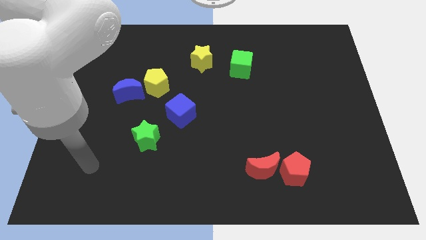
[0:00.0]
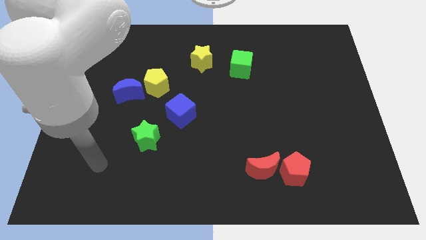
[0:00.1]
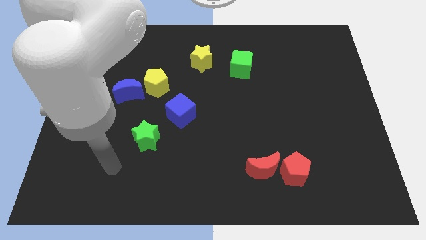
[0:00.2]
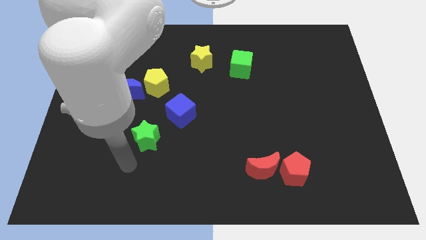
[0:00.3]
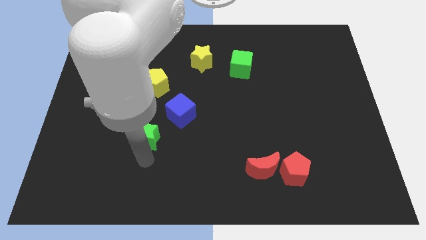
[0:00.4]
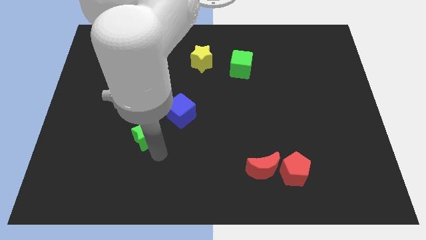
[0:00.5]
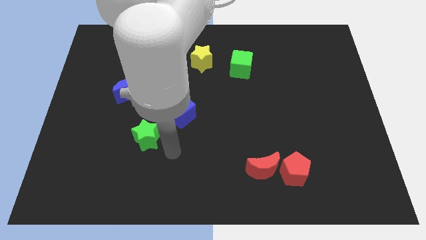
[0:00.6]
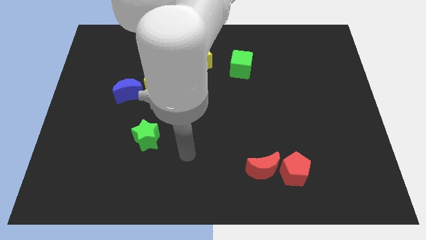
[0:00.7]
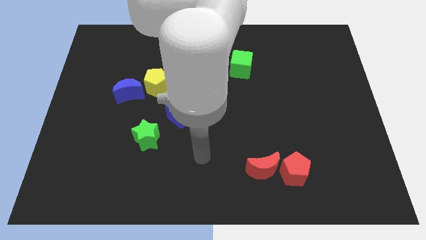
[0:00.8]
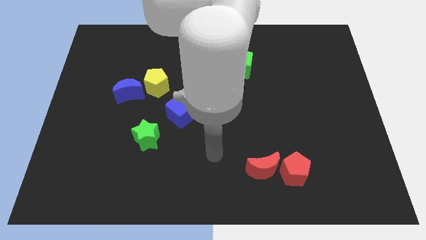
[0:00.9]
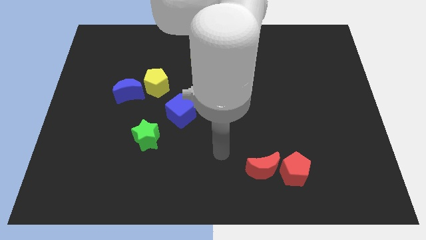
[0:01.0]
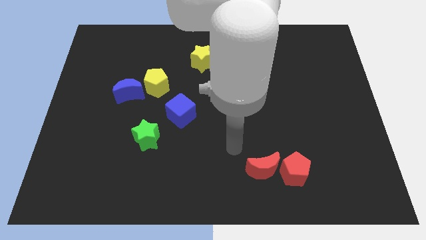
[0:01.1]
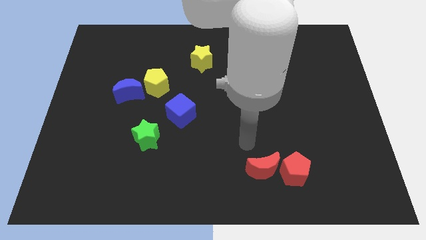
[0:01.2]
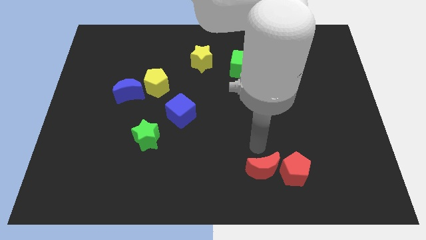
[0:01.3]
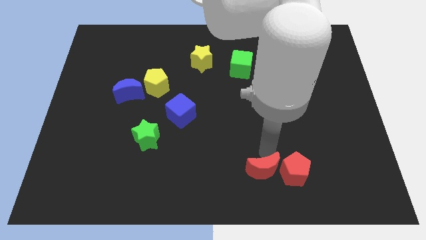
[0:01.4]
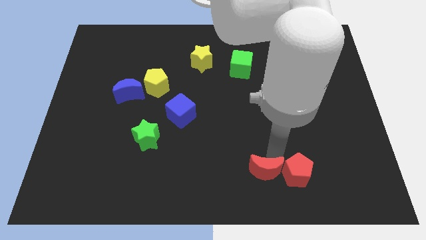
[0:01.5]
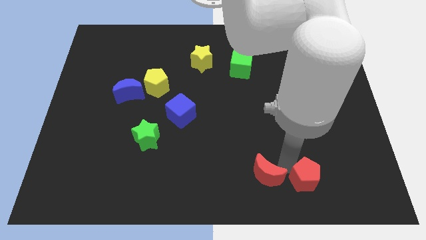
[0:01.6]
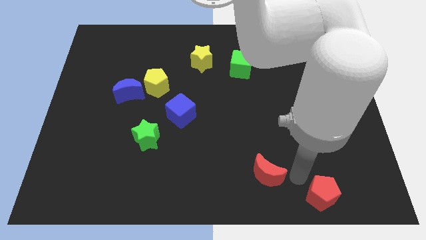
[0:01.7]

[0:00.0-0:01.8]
separate the red moon from the red pentagon

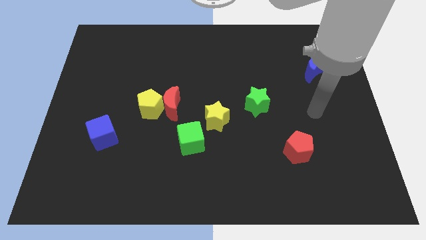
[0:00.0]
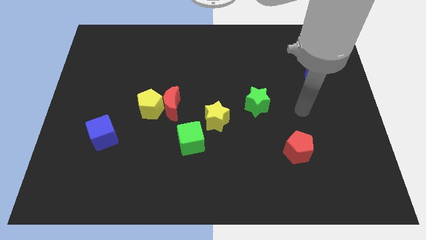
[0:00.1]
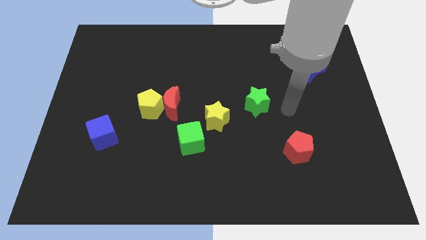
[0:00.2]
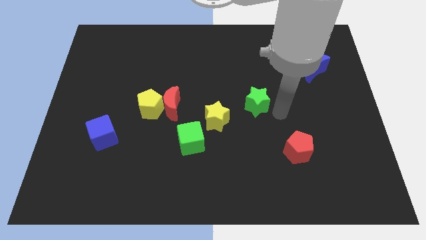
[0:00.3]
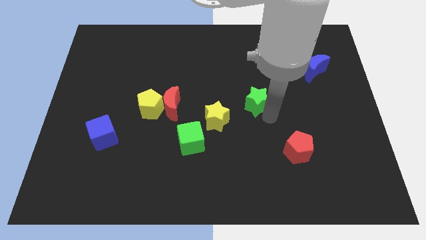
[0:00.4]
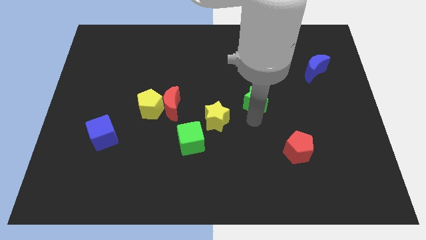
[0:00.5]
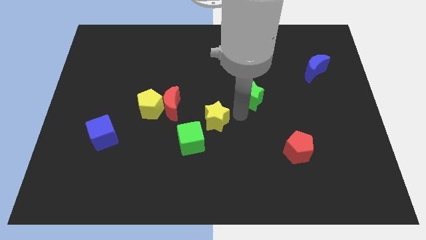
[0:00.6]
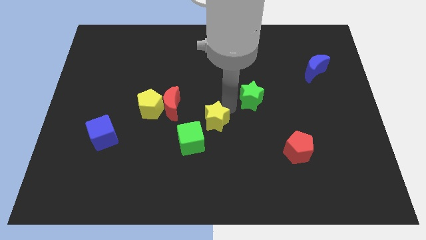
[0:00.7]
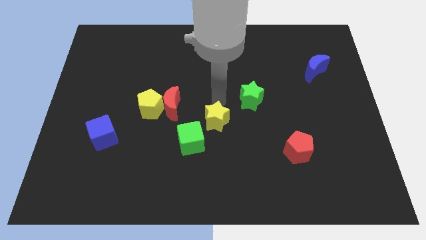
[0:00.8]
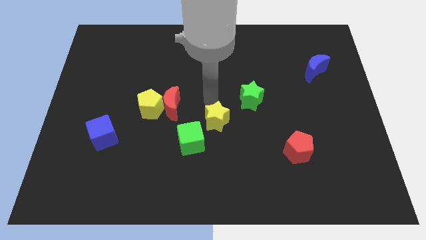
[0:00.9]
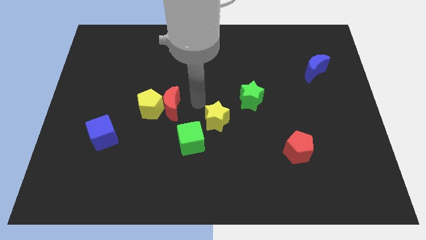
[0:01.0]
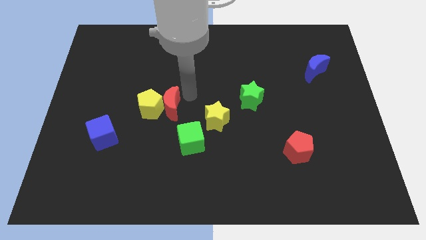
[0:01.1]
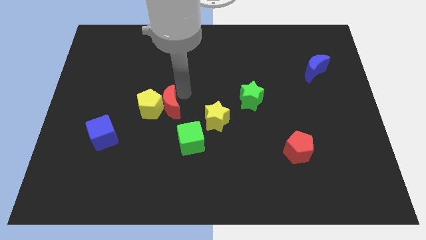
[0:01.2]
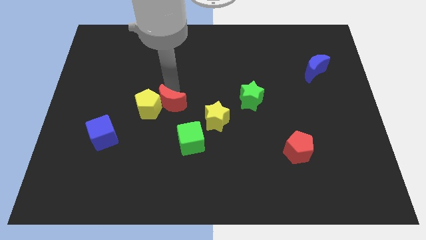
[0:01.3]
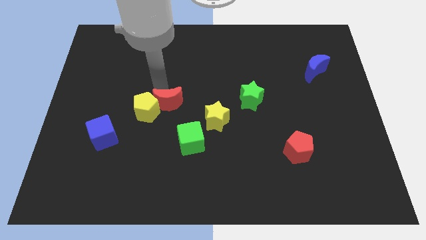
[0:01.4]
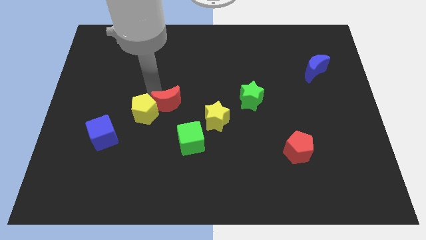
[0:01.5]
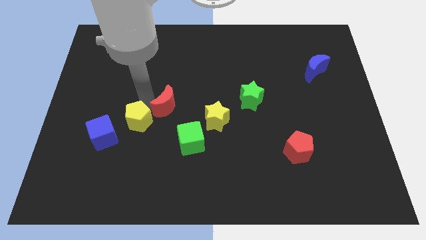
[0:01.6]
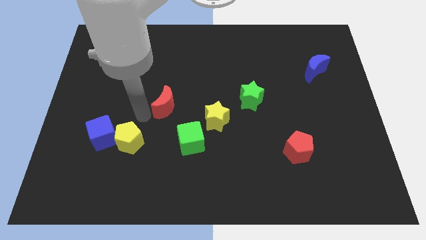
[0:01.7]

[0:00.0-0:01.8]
separate the red moon from the yellow pentagon

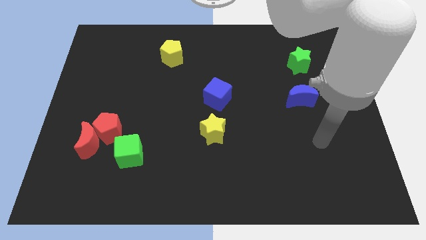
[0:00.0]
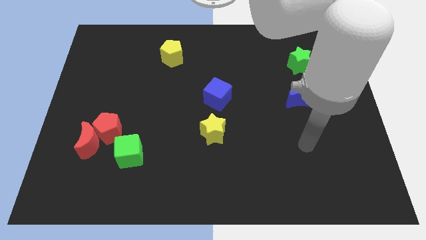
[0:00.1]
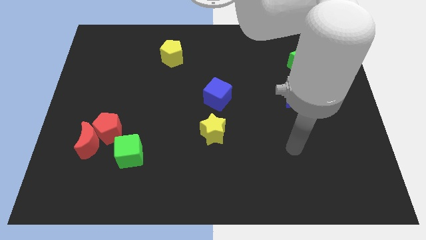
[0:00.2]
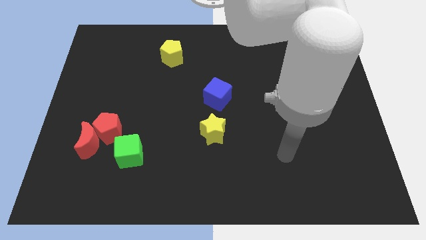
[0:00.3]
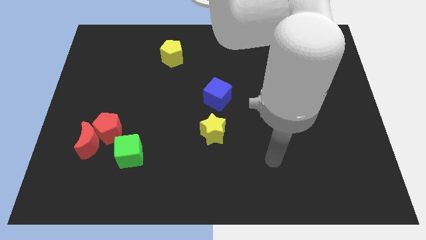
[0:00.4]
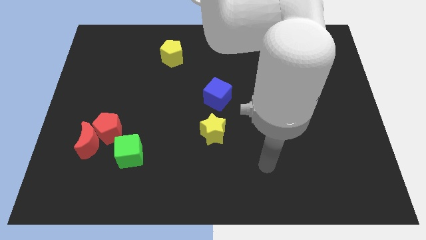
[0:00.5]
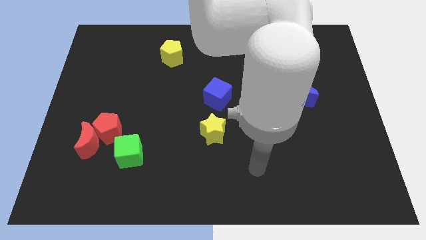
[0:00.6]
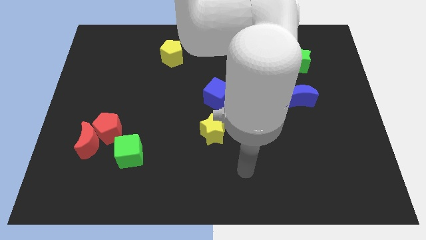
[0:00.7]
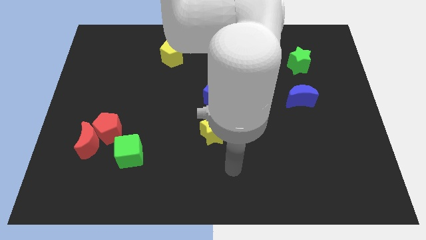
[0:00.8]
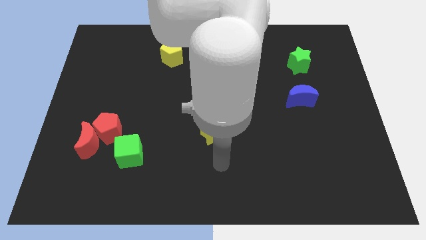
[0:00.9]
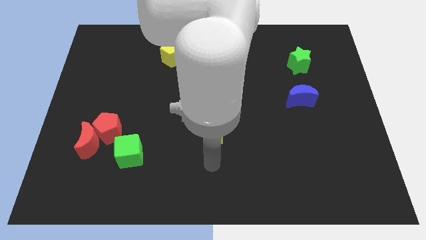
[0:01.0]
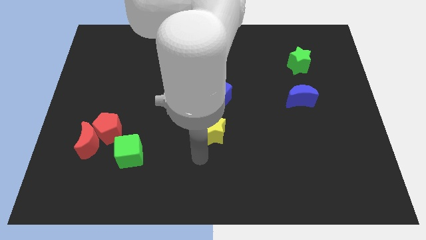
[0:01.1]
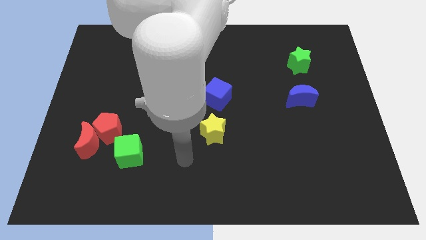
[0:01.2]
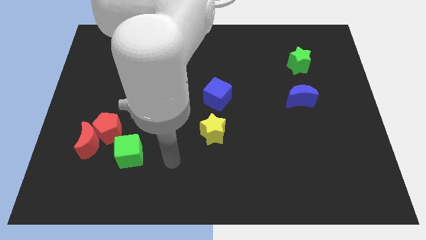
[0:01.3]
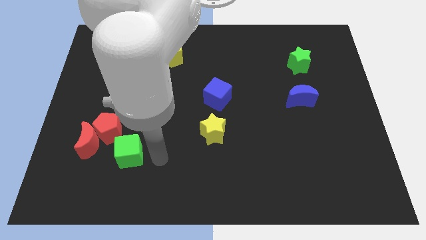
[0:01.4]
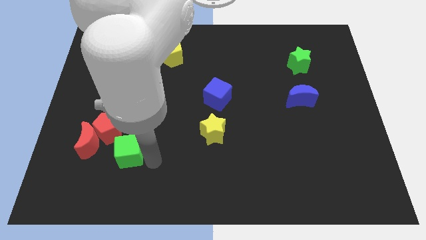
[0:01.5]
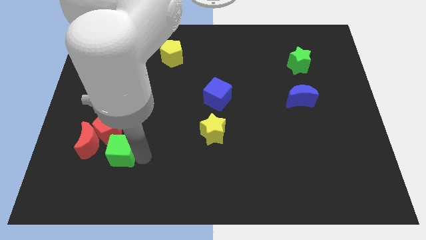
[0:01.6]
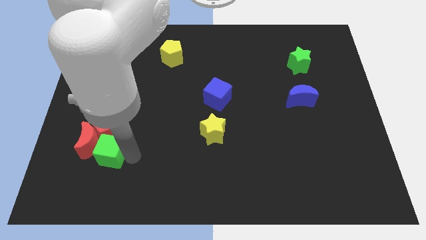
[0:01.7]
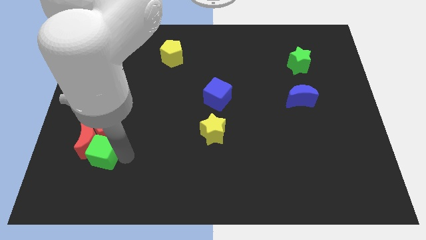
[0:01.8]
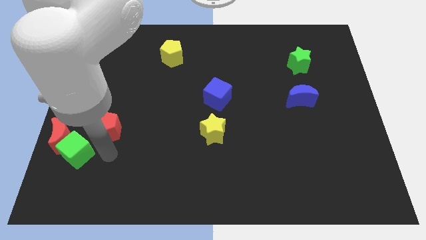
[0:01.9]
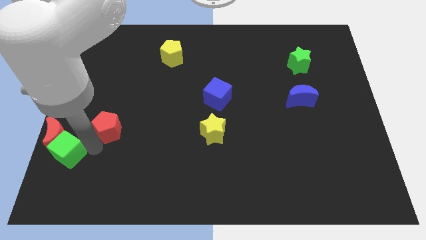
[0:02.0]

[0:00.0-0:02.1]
pull the red pentagon apart from the red moon and green cube

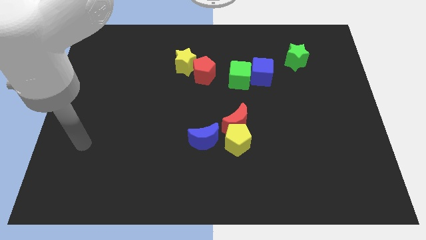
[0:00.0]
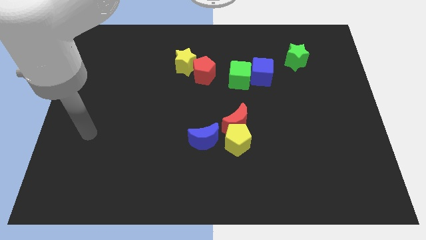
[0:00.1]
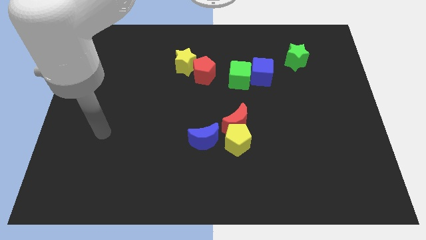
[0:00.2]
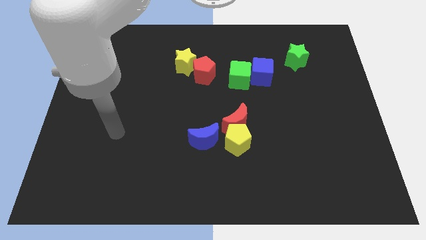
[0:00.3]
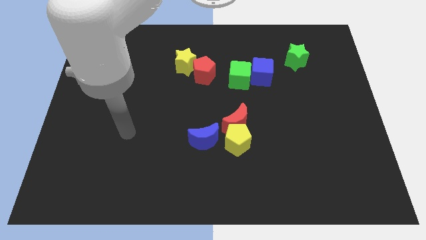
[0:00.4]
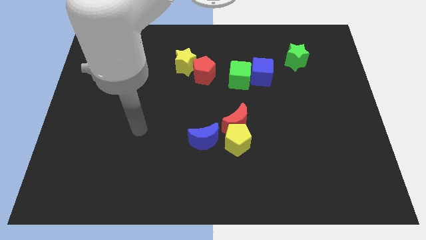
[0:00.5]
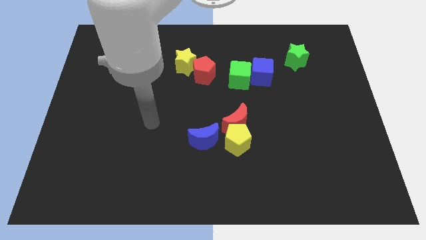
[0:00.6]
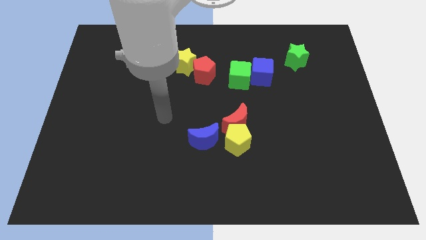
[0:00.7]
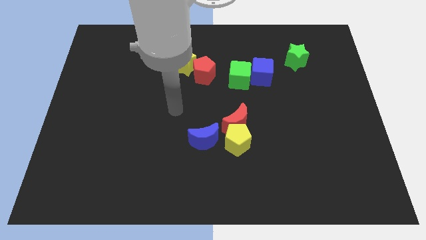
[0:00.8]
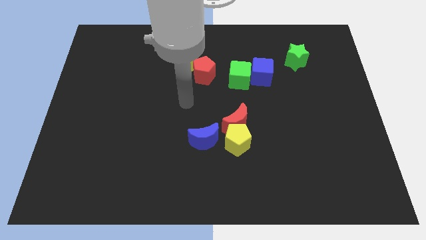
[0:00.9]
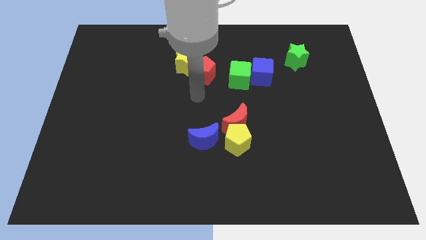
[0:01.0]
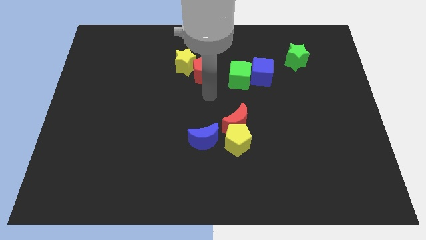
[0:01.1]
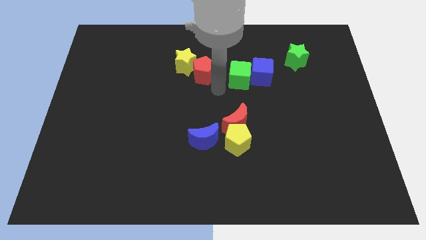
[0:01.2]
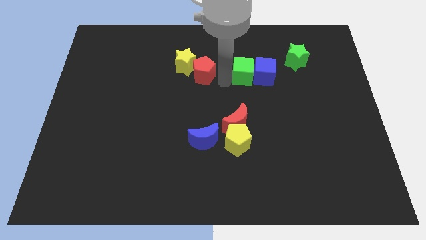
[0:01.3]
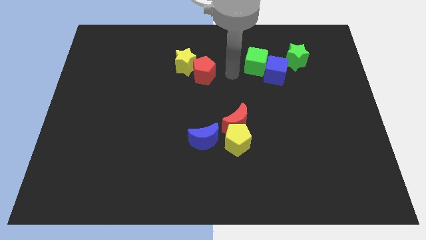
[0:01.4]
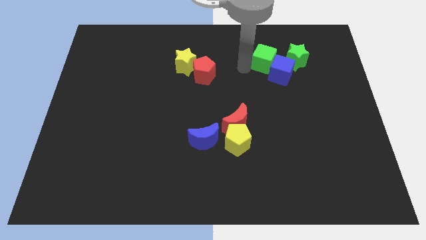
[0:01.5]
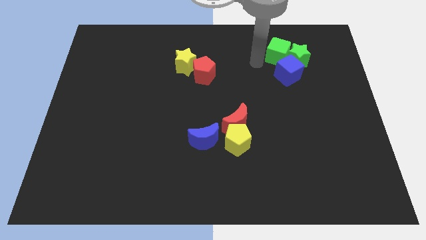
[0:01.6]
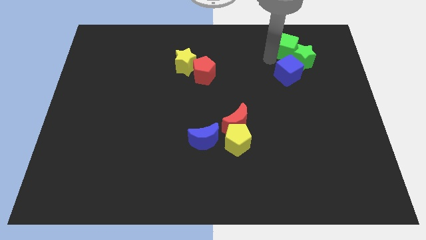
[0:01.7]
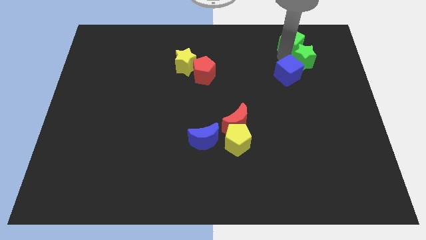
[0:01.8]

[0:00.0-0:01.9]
move the blue cube away from the green cube

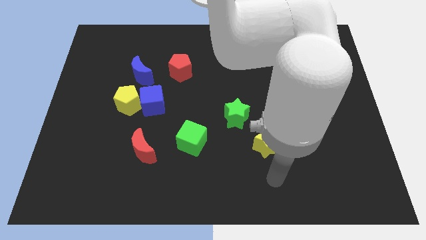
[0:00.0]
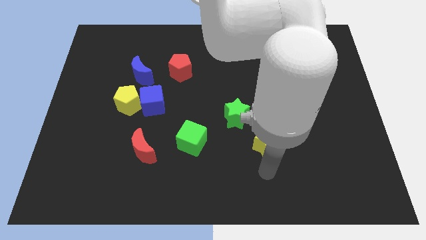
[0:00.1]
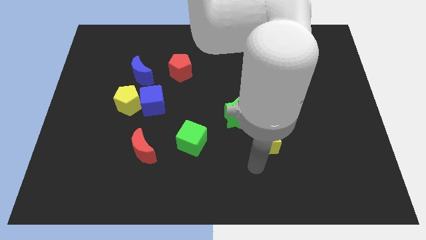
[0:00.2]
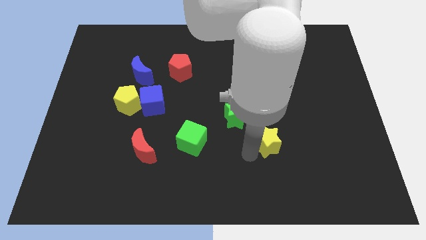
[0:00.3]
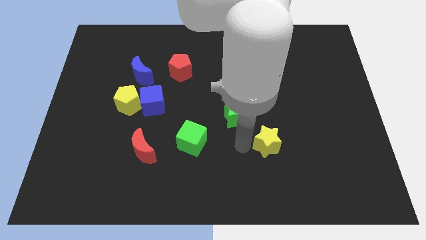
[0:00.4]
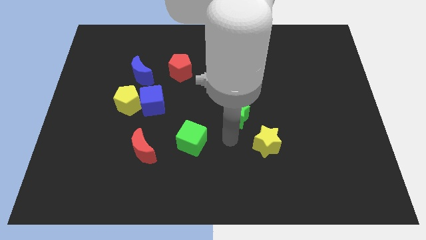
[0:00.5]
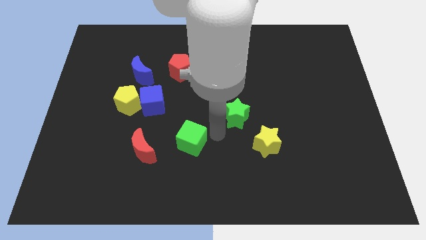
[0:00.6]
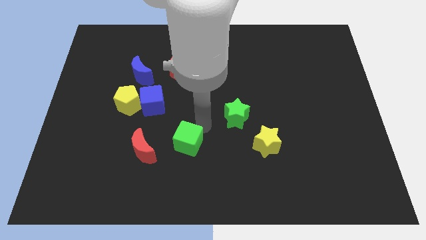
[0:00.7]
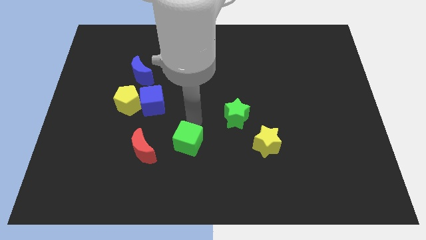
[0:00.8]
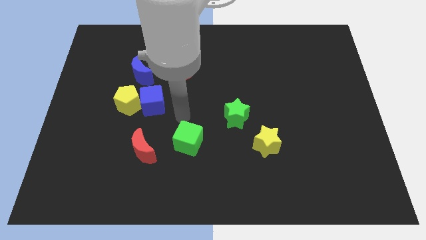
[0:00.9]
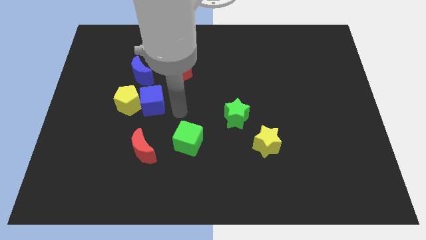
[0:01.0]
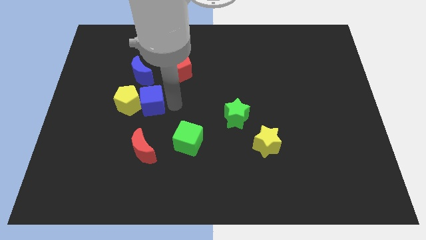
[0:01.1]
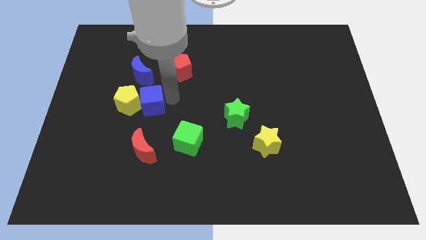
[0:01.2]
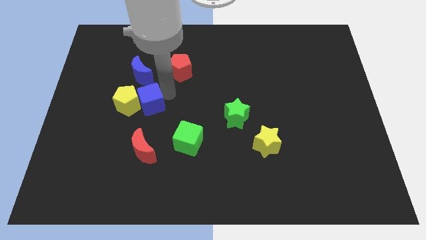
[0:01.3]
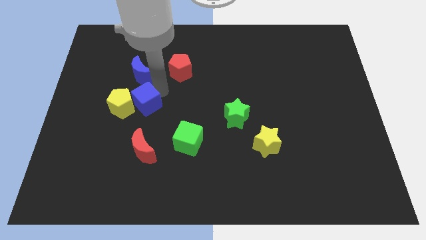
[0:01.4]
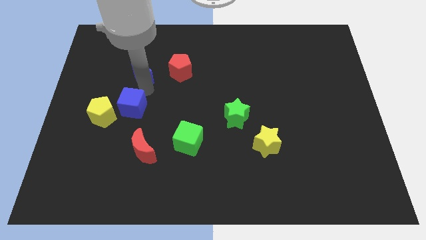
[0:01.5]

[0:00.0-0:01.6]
pull the yellow pentagon apart from the blue cube and blue moon

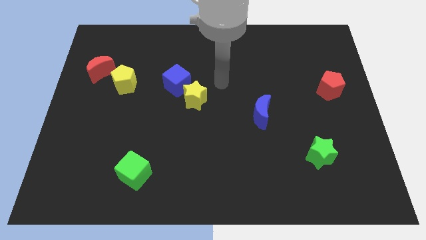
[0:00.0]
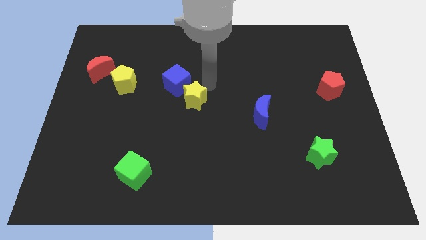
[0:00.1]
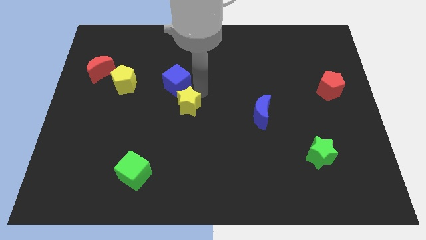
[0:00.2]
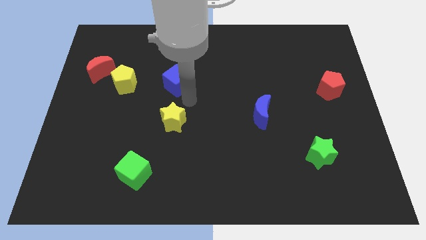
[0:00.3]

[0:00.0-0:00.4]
separate the blue cube from the yellow star
